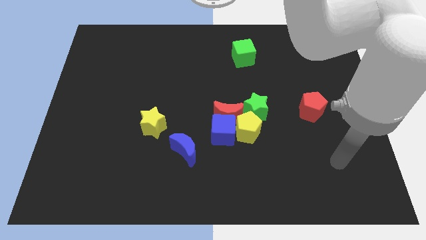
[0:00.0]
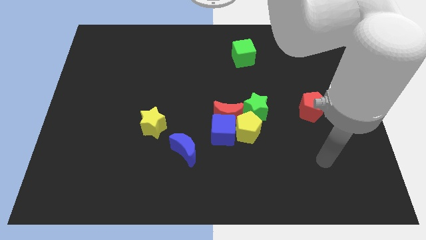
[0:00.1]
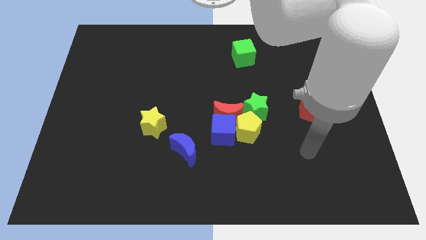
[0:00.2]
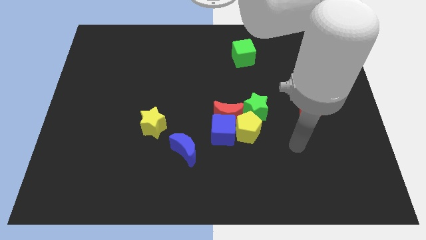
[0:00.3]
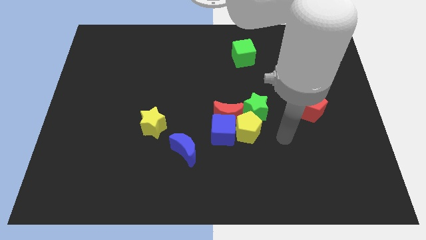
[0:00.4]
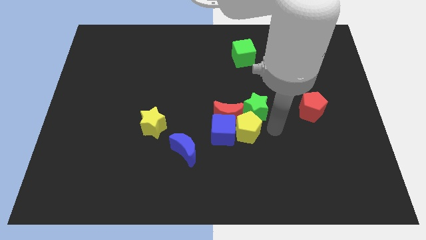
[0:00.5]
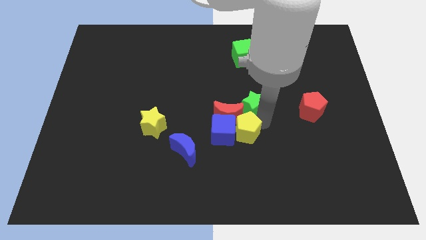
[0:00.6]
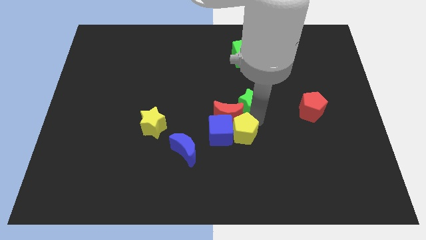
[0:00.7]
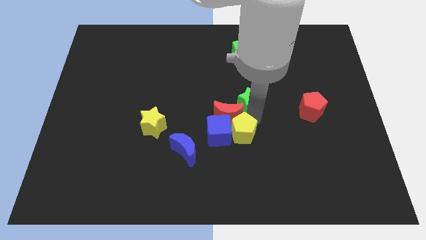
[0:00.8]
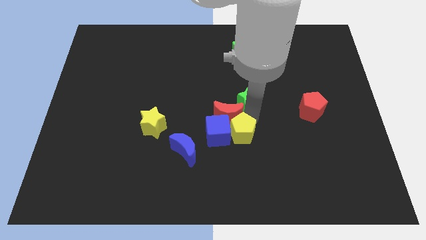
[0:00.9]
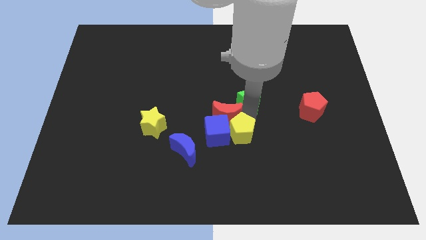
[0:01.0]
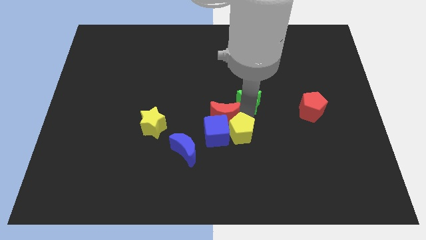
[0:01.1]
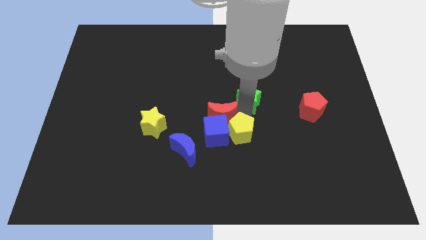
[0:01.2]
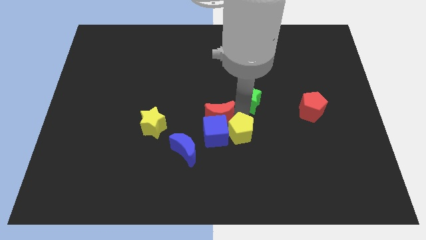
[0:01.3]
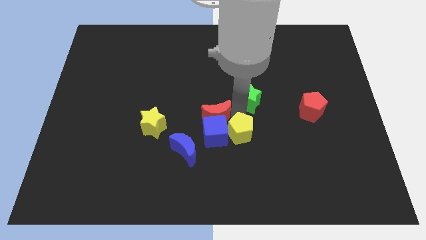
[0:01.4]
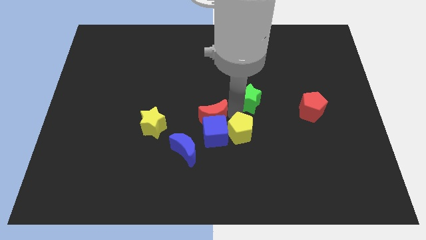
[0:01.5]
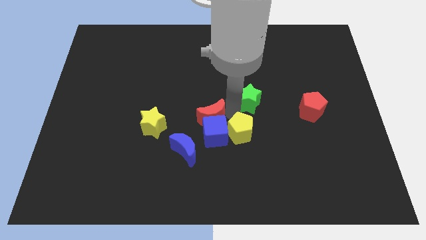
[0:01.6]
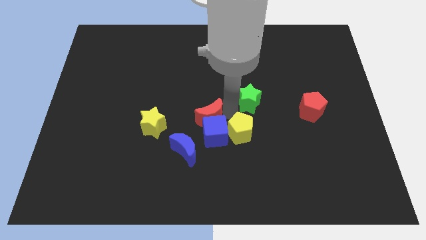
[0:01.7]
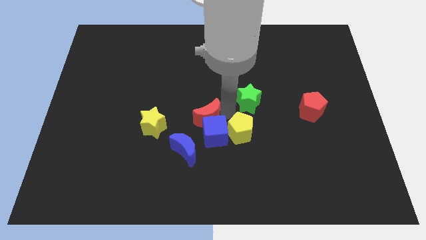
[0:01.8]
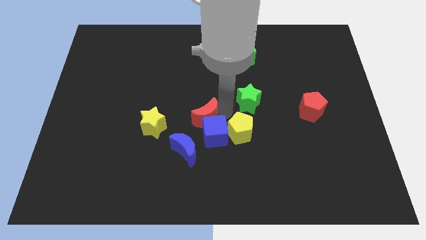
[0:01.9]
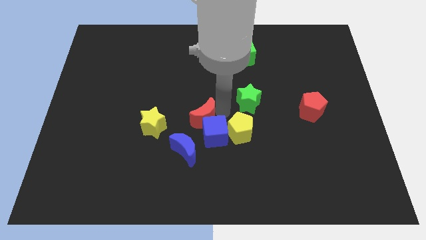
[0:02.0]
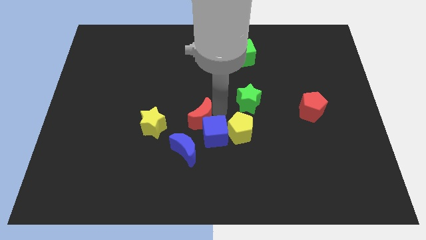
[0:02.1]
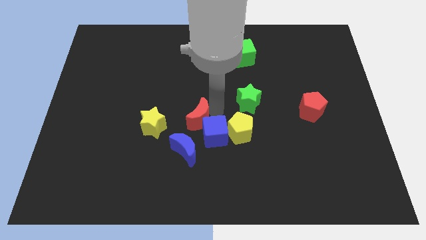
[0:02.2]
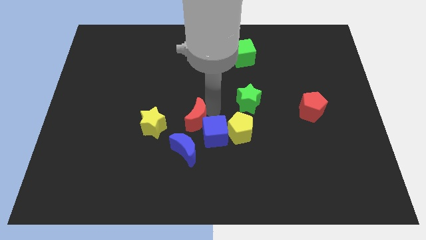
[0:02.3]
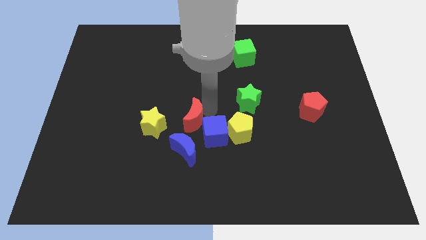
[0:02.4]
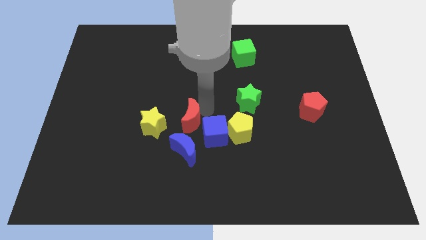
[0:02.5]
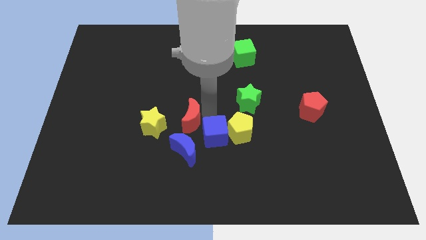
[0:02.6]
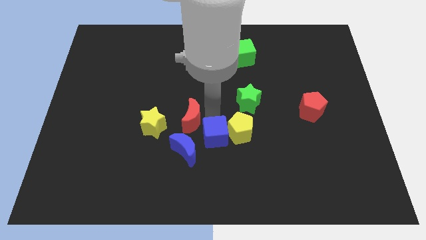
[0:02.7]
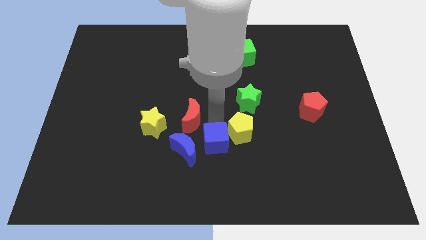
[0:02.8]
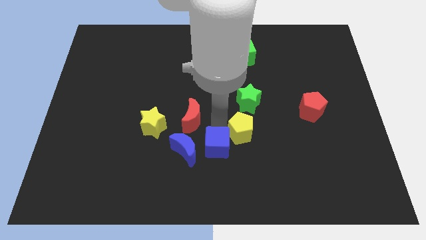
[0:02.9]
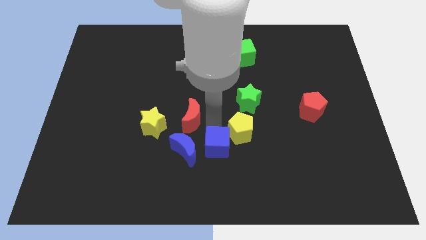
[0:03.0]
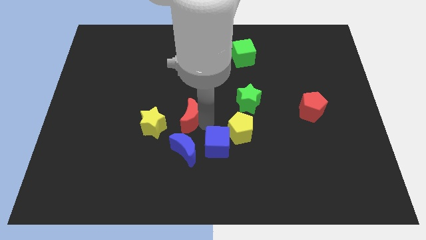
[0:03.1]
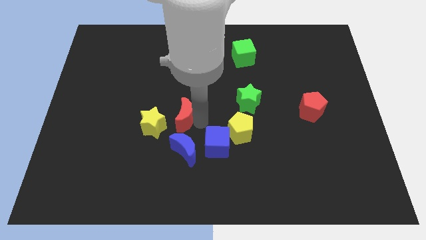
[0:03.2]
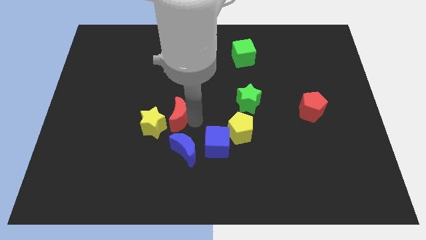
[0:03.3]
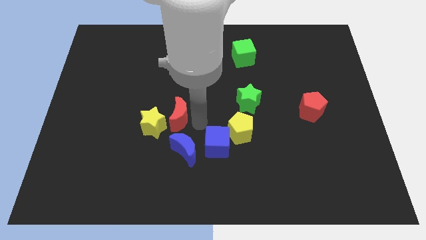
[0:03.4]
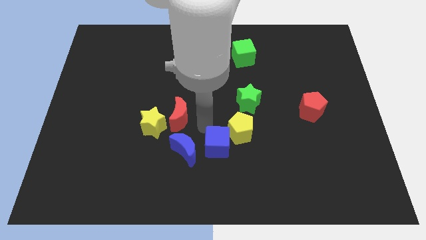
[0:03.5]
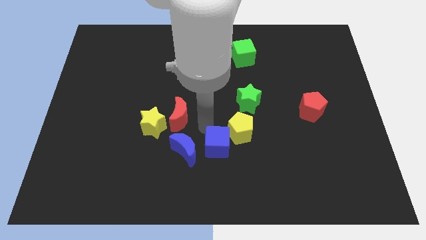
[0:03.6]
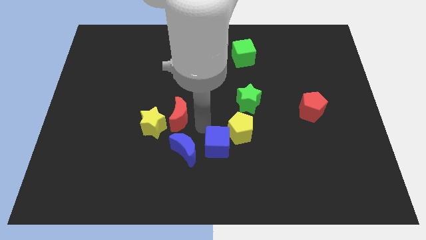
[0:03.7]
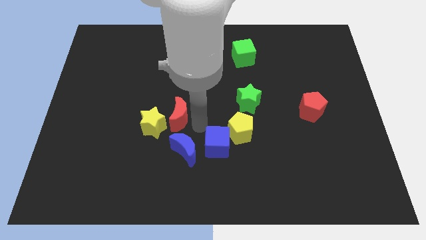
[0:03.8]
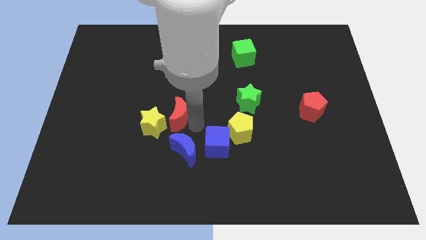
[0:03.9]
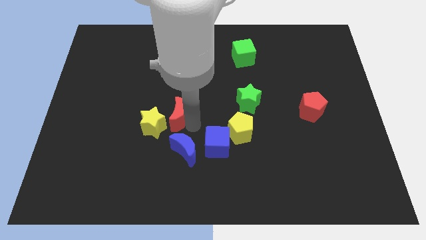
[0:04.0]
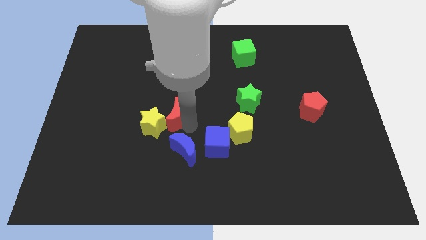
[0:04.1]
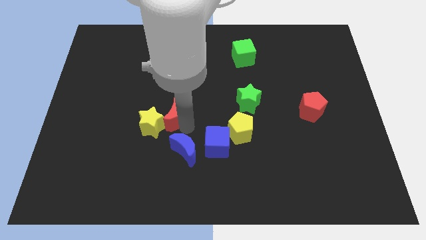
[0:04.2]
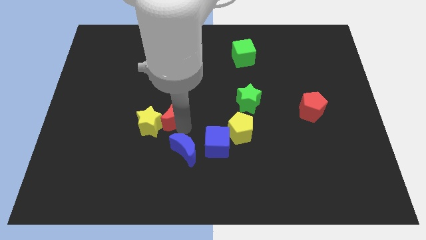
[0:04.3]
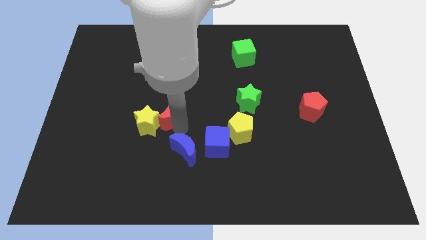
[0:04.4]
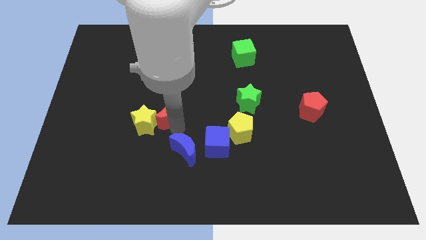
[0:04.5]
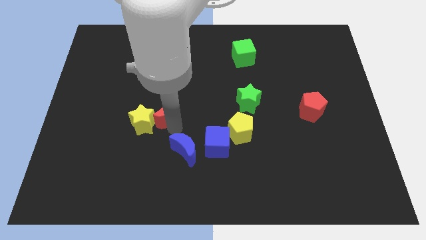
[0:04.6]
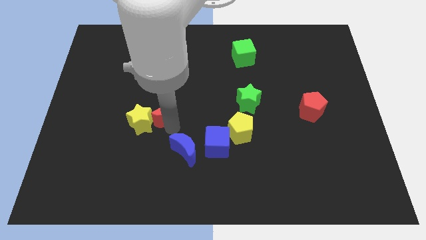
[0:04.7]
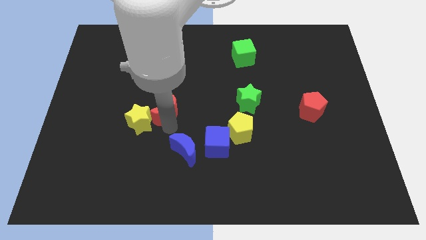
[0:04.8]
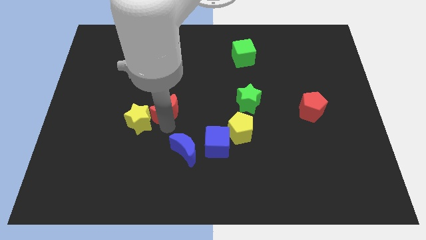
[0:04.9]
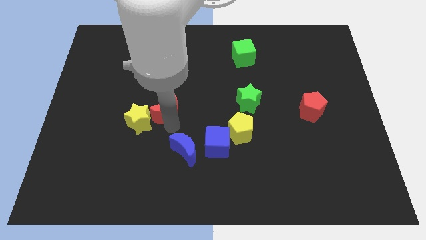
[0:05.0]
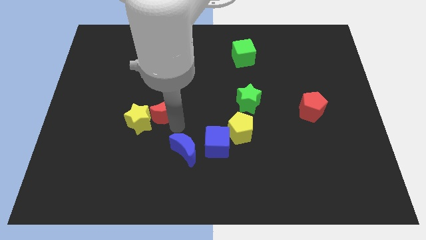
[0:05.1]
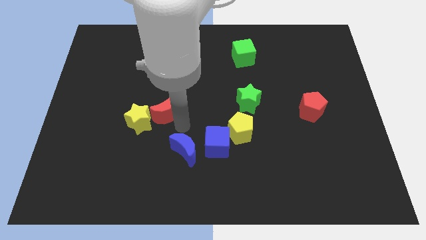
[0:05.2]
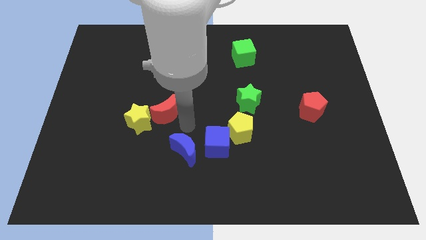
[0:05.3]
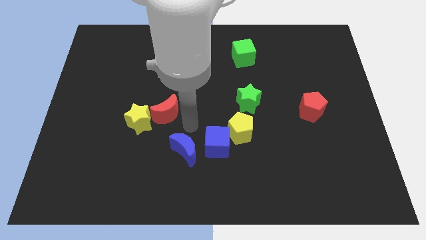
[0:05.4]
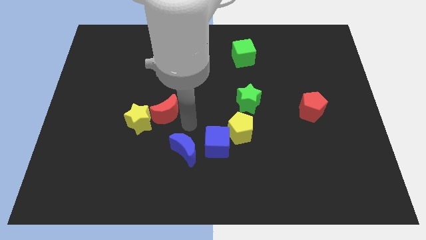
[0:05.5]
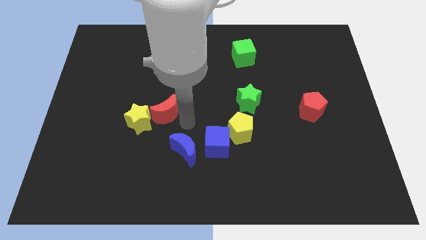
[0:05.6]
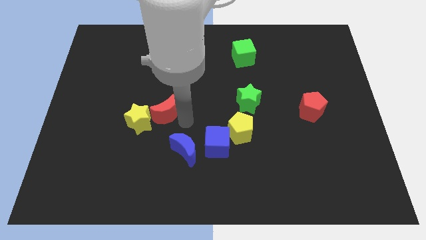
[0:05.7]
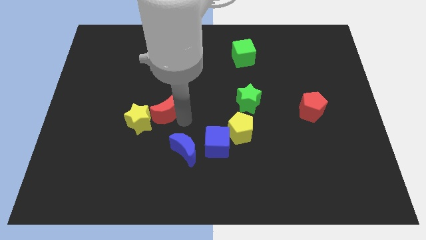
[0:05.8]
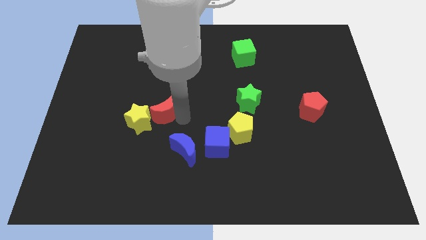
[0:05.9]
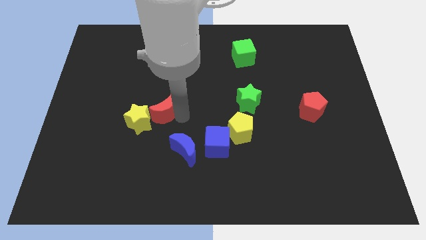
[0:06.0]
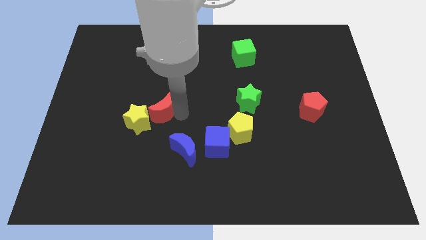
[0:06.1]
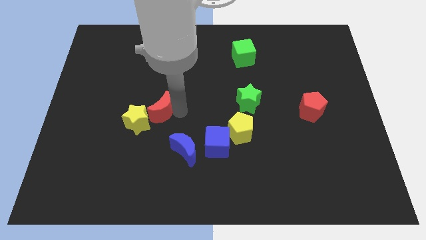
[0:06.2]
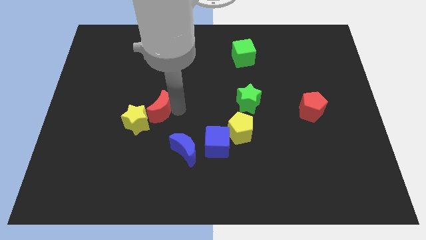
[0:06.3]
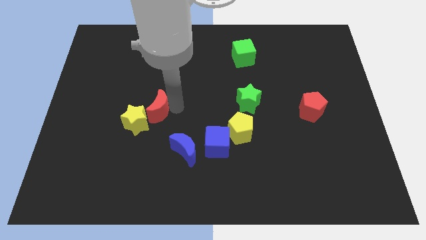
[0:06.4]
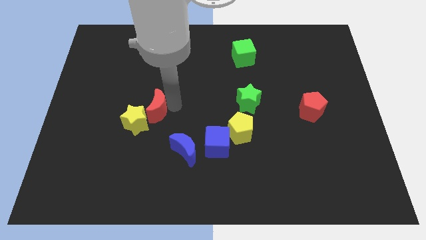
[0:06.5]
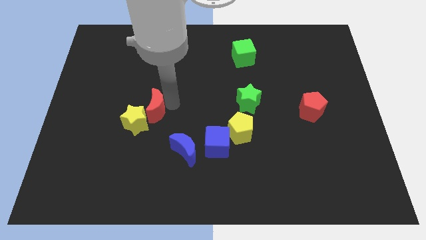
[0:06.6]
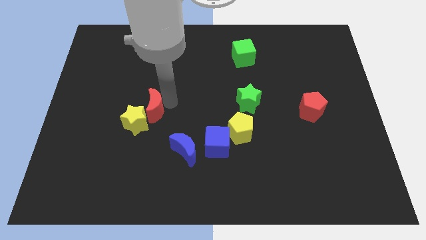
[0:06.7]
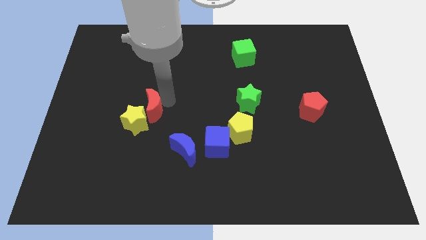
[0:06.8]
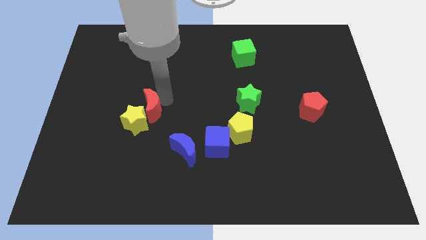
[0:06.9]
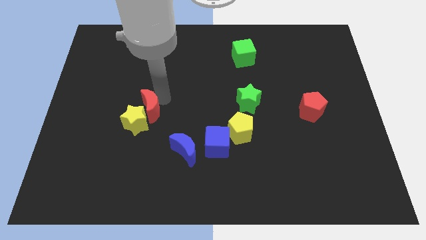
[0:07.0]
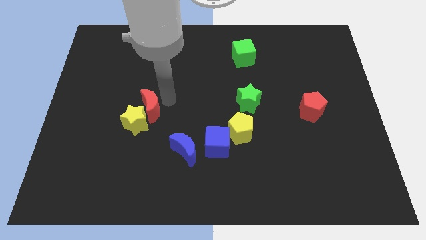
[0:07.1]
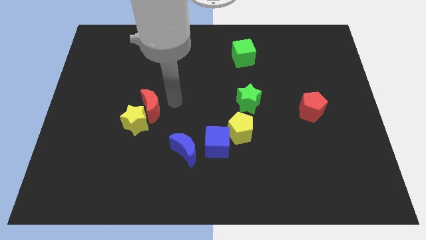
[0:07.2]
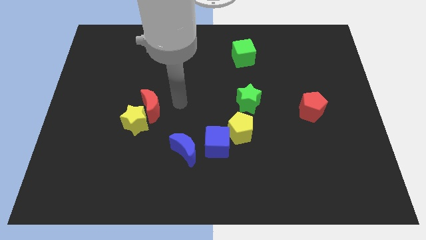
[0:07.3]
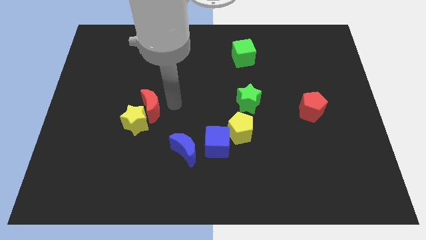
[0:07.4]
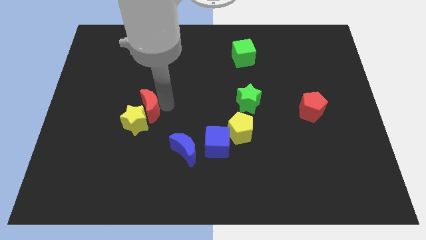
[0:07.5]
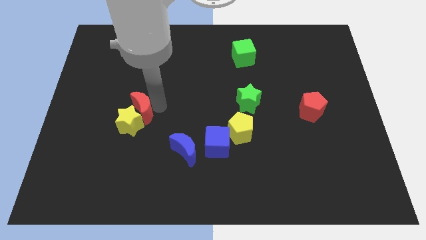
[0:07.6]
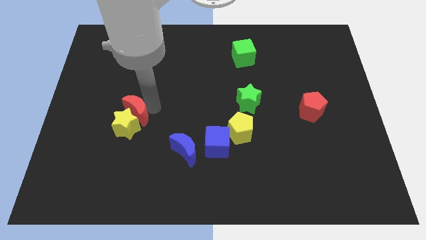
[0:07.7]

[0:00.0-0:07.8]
slide the red moon to the left

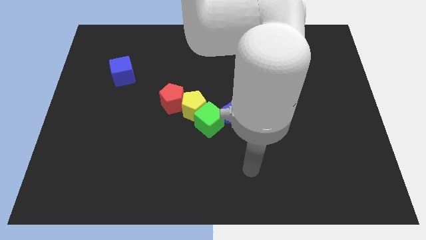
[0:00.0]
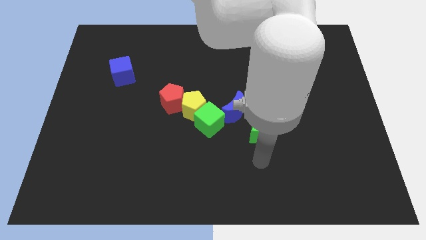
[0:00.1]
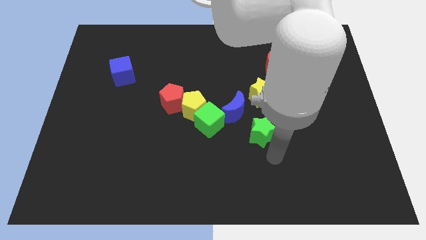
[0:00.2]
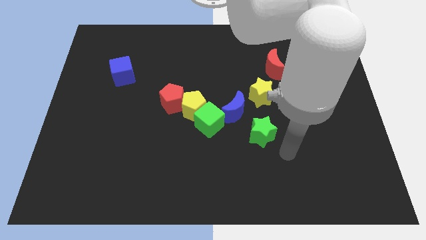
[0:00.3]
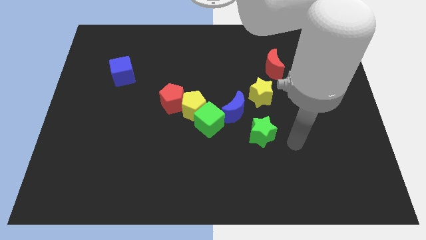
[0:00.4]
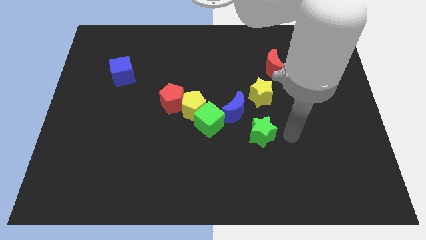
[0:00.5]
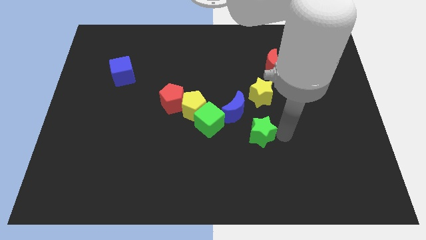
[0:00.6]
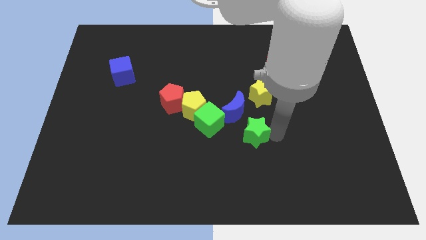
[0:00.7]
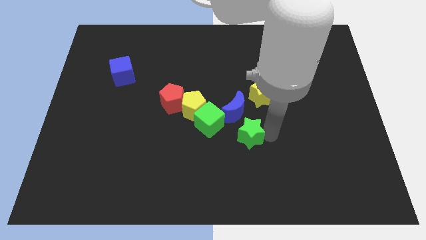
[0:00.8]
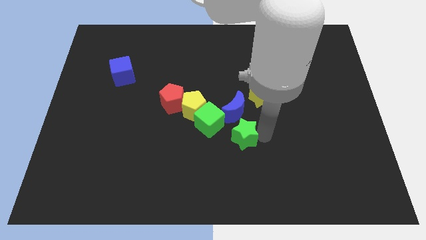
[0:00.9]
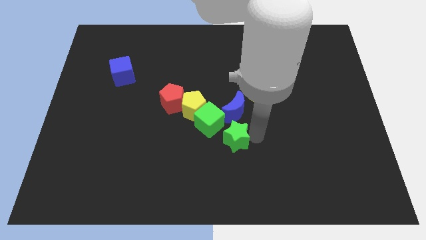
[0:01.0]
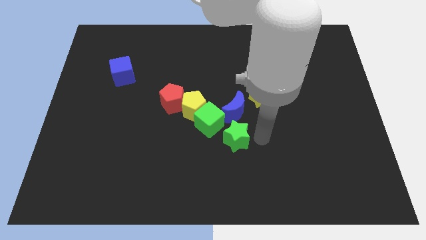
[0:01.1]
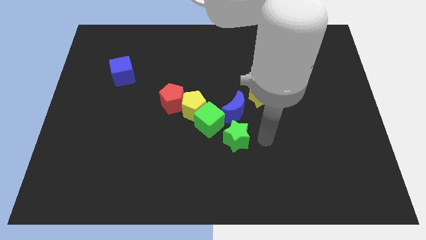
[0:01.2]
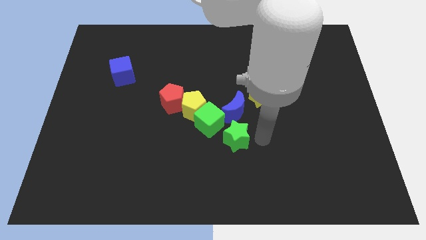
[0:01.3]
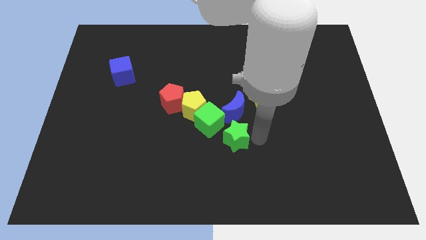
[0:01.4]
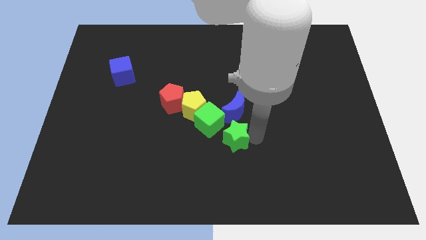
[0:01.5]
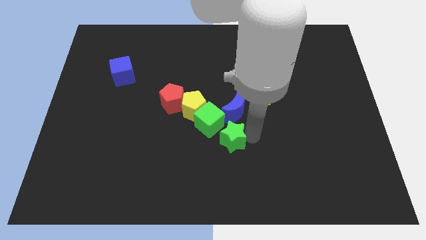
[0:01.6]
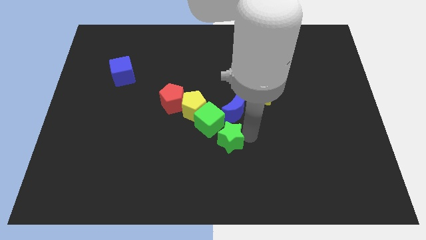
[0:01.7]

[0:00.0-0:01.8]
slide the green star left slightly
